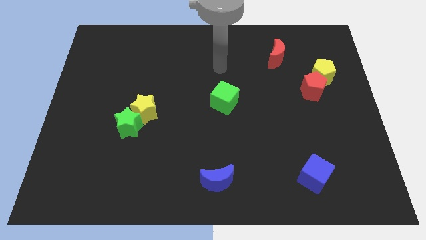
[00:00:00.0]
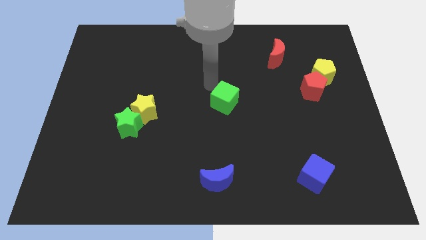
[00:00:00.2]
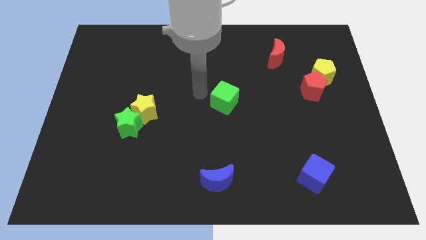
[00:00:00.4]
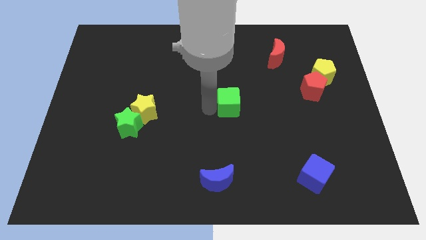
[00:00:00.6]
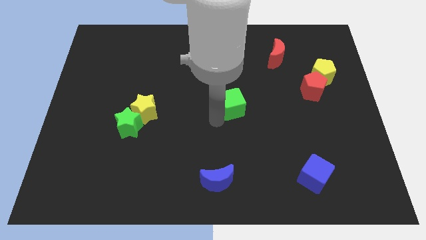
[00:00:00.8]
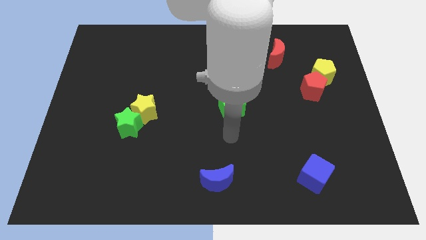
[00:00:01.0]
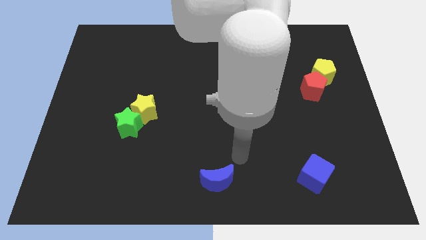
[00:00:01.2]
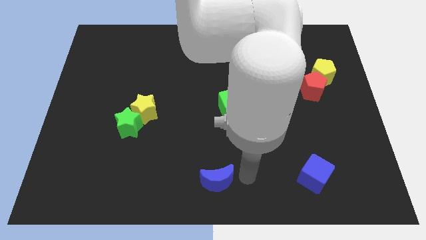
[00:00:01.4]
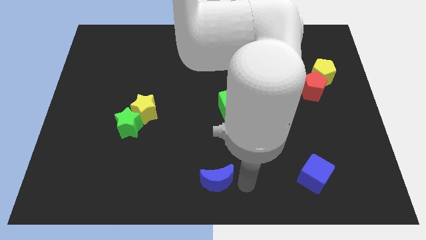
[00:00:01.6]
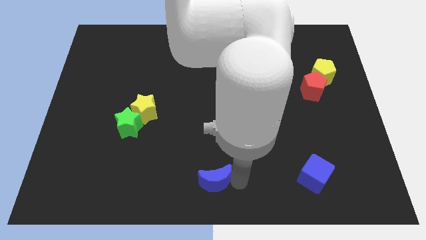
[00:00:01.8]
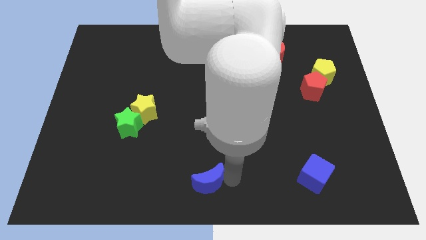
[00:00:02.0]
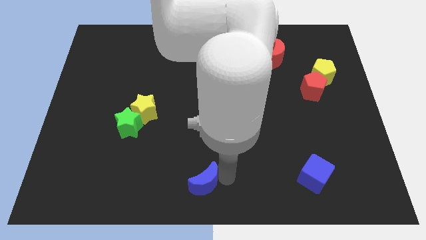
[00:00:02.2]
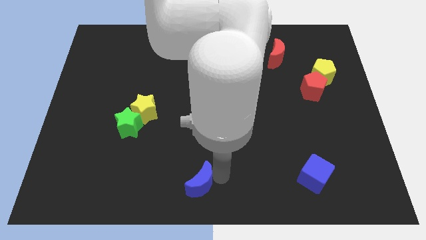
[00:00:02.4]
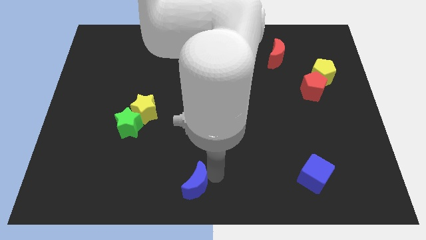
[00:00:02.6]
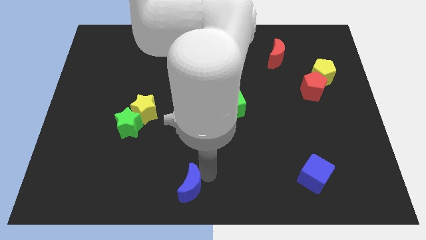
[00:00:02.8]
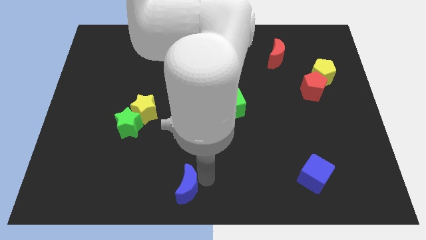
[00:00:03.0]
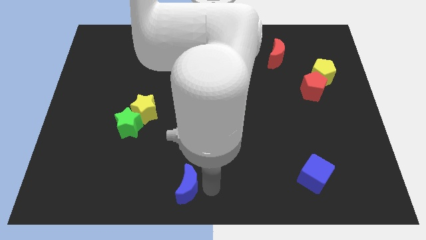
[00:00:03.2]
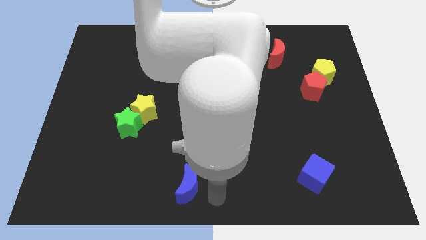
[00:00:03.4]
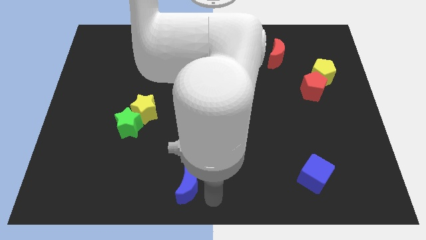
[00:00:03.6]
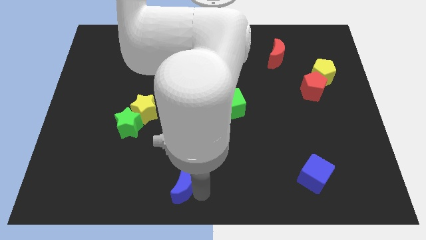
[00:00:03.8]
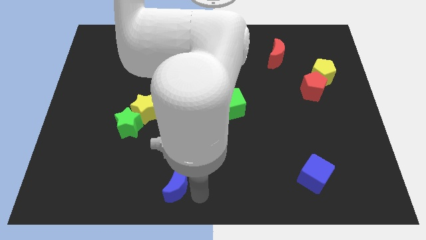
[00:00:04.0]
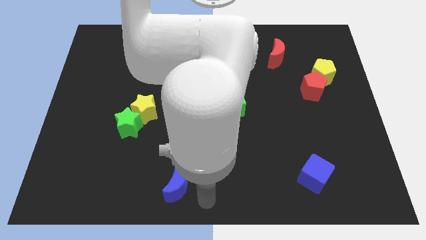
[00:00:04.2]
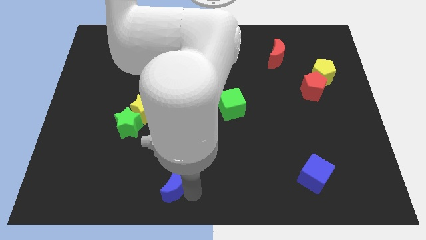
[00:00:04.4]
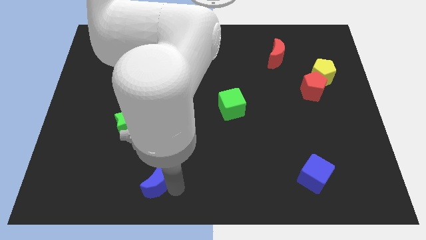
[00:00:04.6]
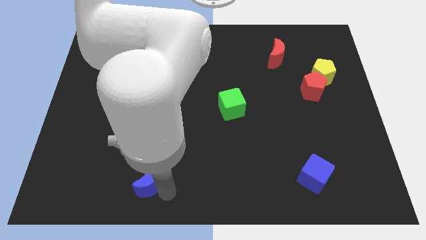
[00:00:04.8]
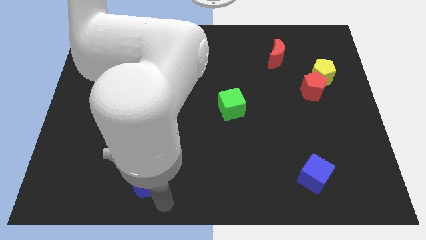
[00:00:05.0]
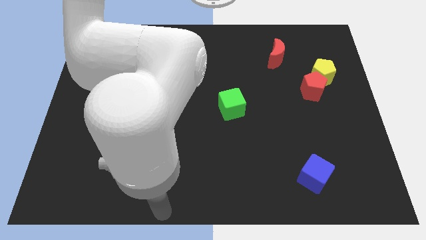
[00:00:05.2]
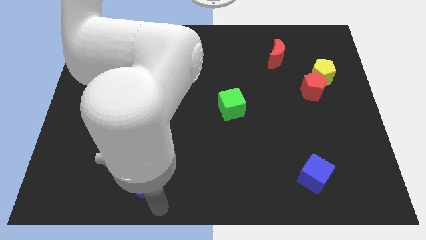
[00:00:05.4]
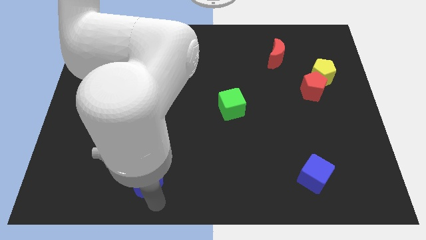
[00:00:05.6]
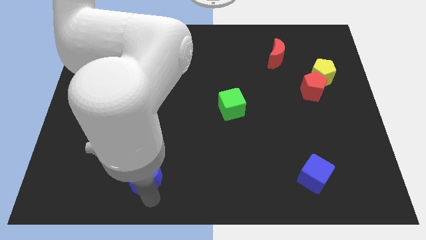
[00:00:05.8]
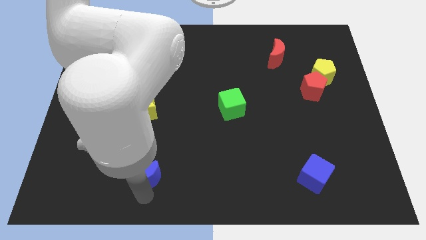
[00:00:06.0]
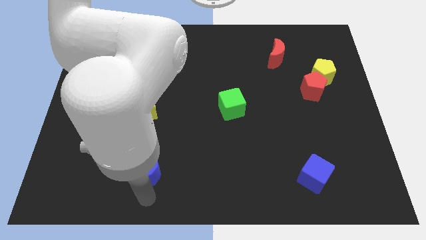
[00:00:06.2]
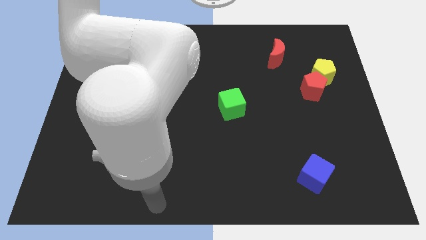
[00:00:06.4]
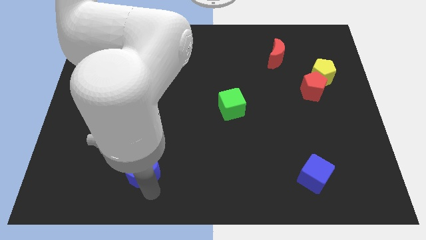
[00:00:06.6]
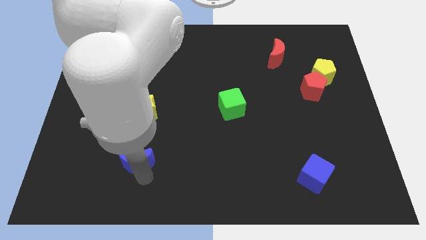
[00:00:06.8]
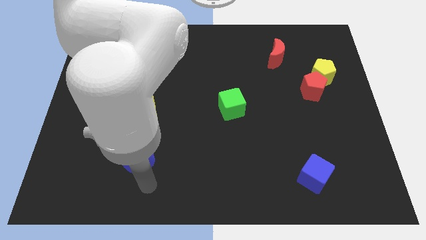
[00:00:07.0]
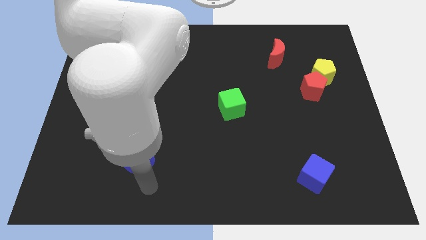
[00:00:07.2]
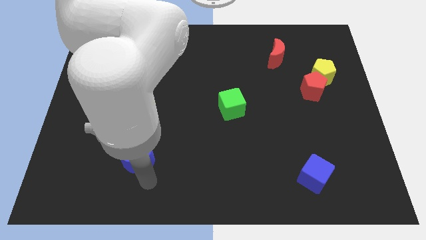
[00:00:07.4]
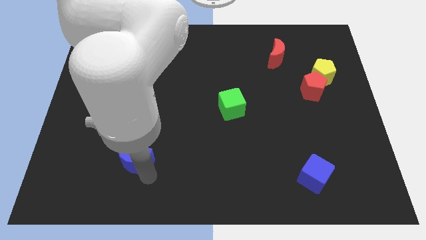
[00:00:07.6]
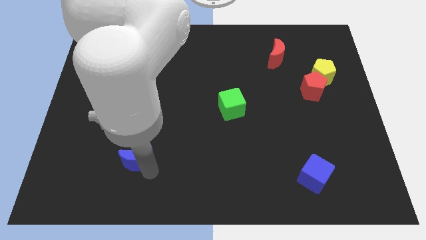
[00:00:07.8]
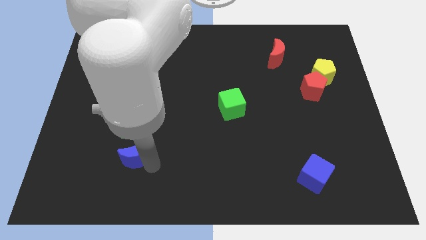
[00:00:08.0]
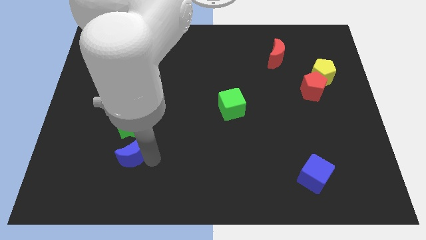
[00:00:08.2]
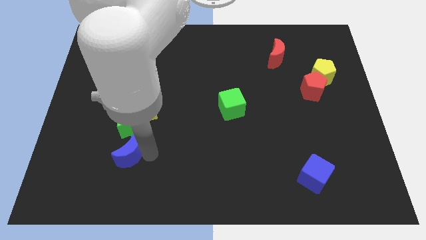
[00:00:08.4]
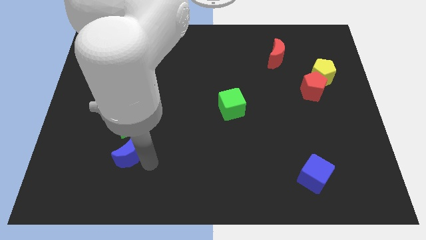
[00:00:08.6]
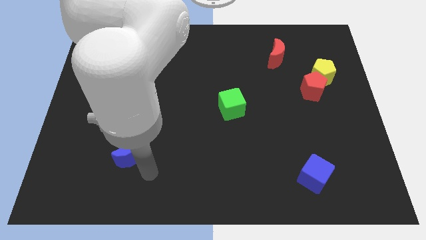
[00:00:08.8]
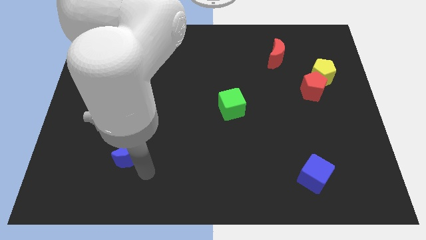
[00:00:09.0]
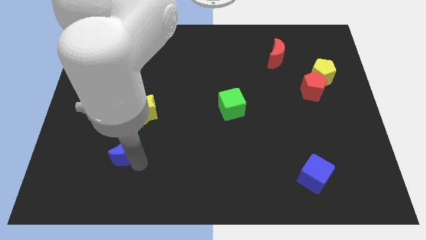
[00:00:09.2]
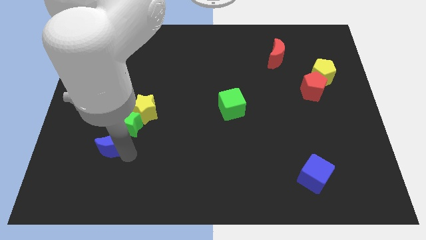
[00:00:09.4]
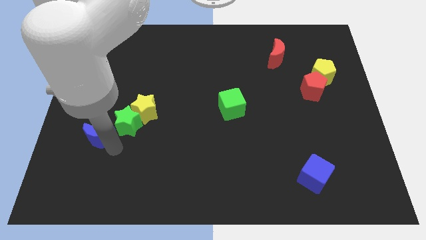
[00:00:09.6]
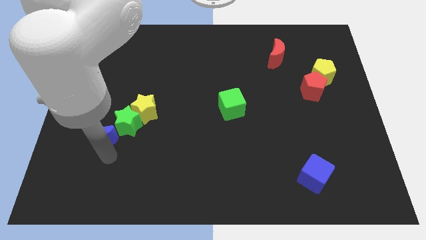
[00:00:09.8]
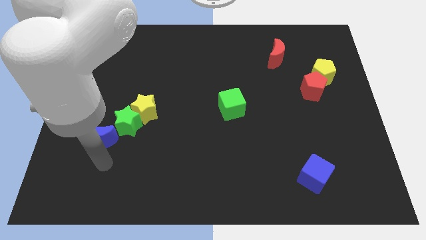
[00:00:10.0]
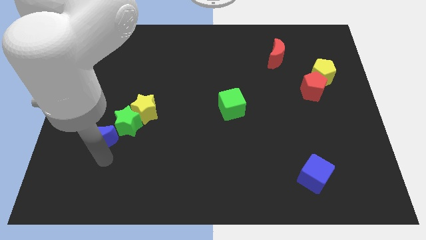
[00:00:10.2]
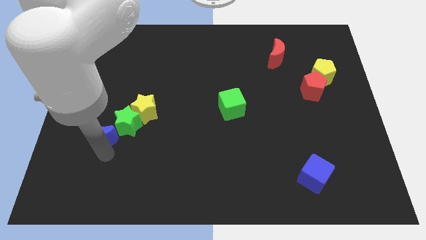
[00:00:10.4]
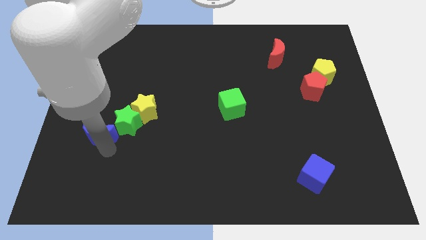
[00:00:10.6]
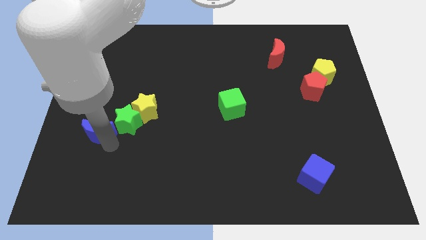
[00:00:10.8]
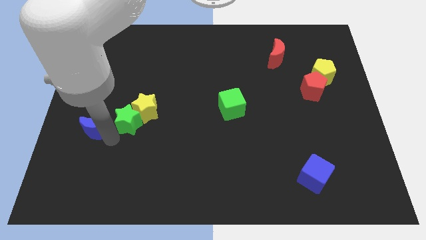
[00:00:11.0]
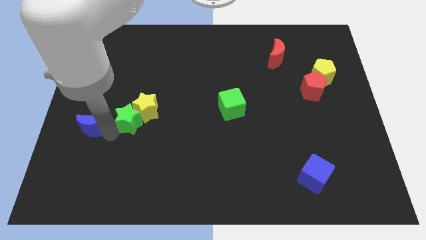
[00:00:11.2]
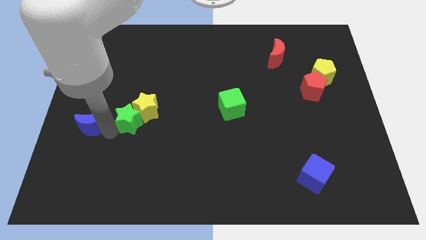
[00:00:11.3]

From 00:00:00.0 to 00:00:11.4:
push the blue moon to the center left

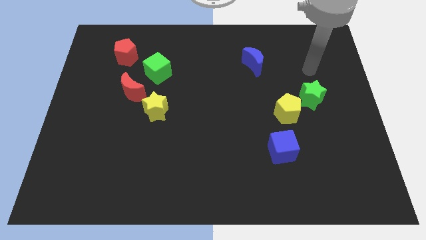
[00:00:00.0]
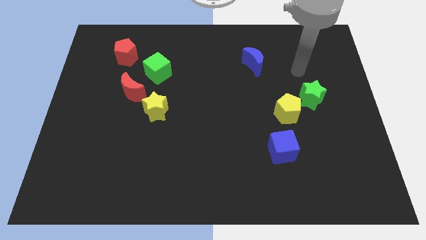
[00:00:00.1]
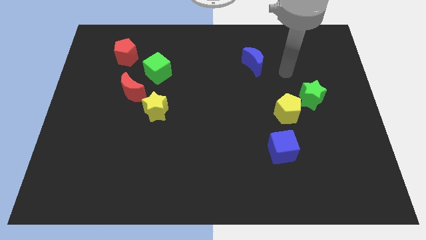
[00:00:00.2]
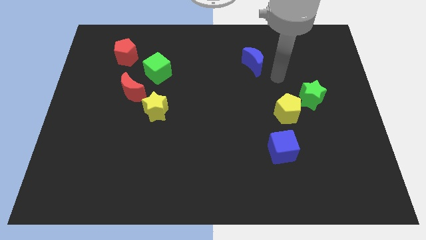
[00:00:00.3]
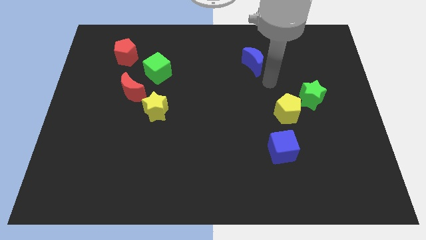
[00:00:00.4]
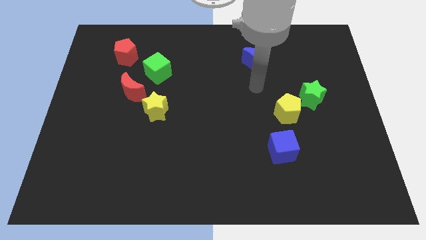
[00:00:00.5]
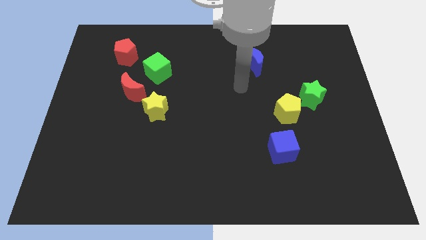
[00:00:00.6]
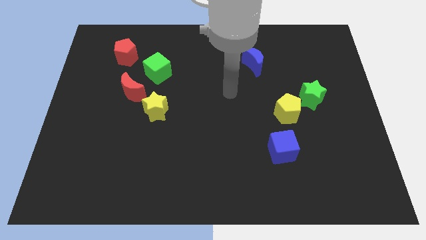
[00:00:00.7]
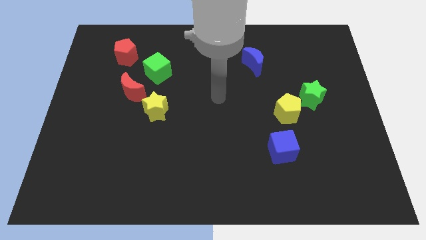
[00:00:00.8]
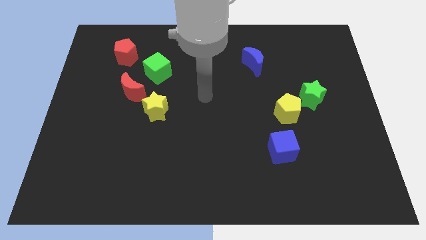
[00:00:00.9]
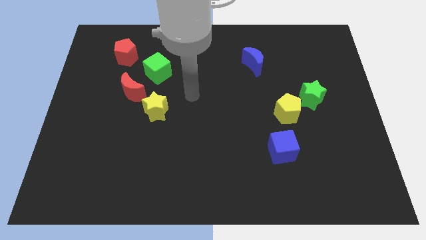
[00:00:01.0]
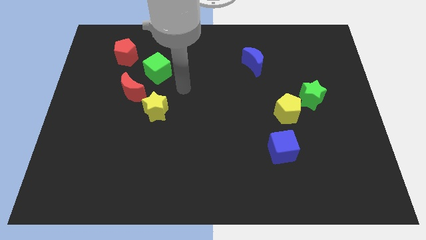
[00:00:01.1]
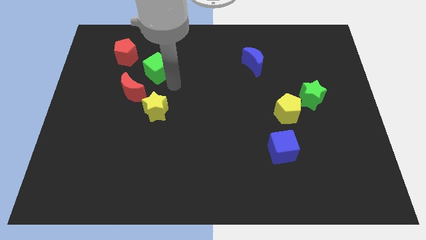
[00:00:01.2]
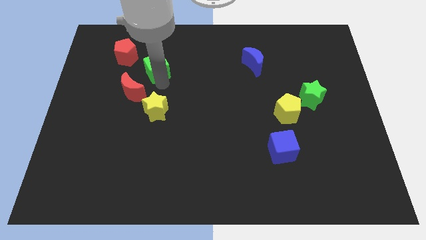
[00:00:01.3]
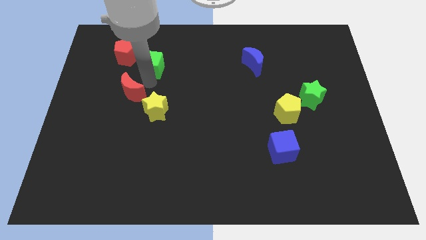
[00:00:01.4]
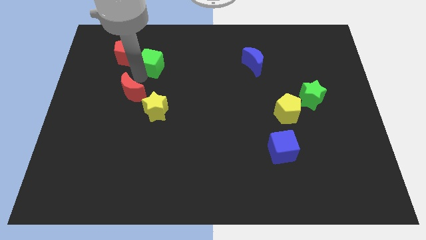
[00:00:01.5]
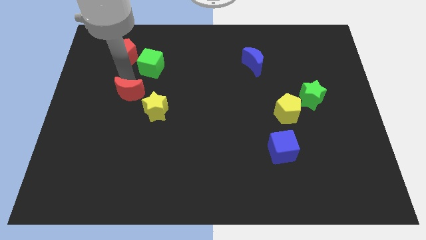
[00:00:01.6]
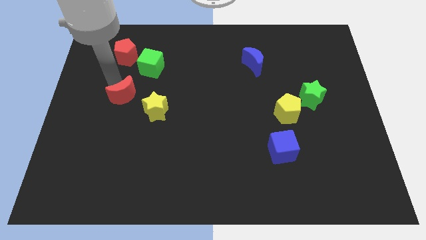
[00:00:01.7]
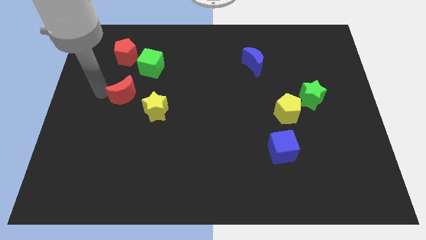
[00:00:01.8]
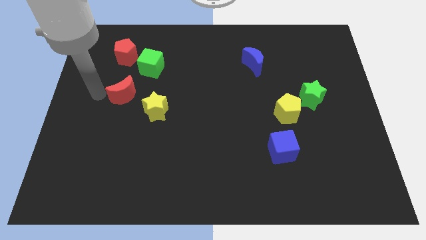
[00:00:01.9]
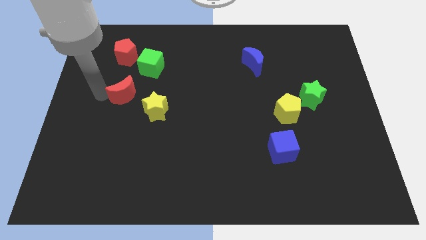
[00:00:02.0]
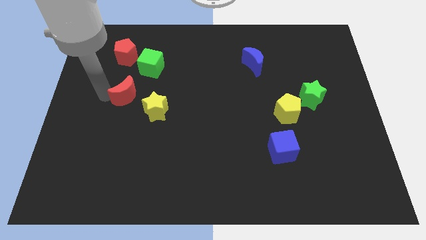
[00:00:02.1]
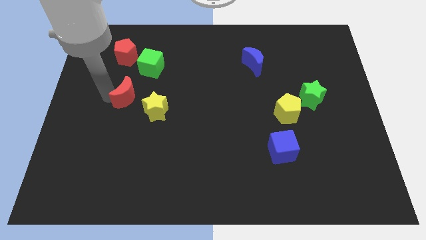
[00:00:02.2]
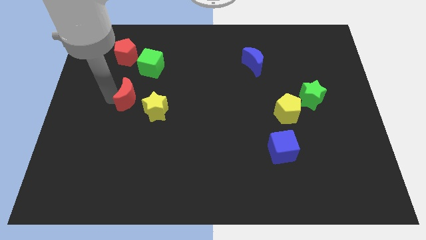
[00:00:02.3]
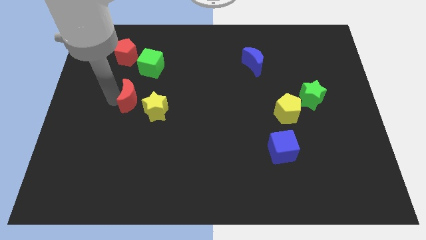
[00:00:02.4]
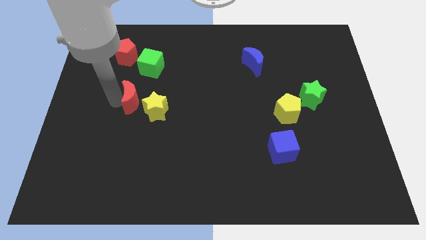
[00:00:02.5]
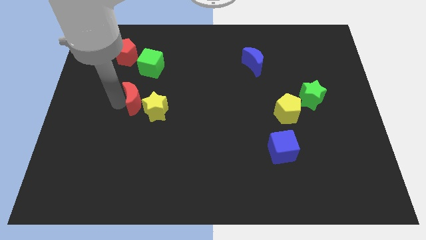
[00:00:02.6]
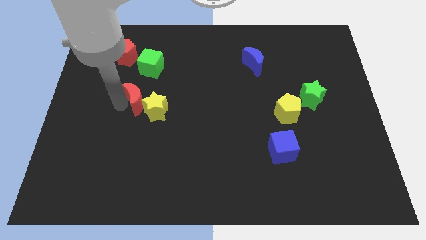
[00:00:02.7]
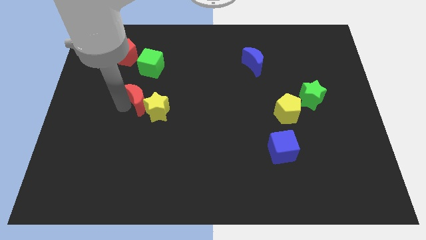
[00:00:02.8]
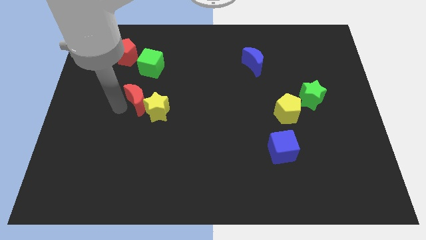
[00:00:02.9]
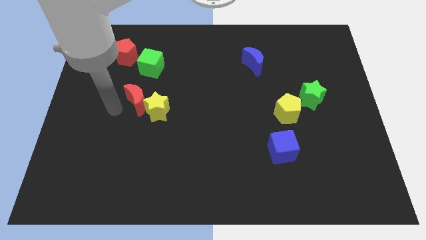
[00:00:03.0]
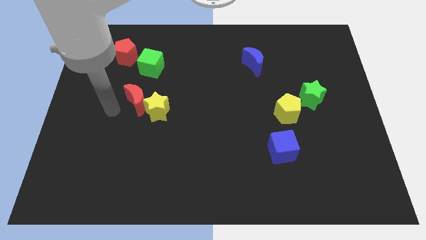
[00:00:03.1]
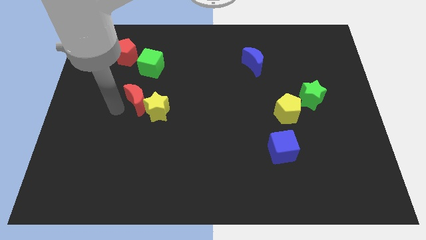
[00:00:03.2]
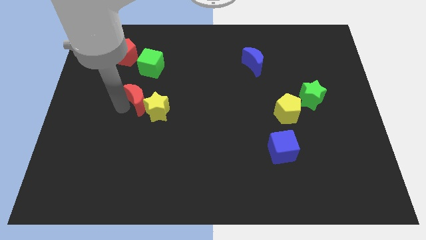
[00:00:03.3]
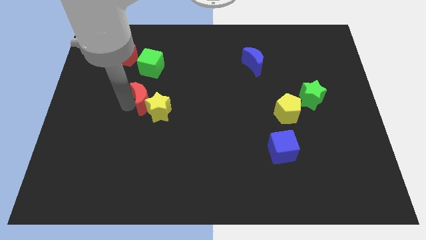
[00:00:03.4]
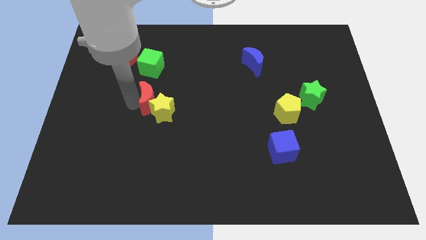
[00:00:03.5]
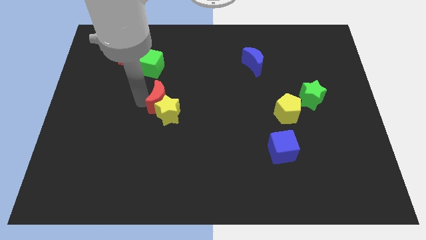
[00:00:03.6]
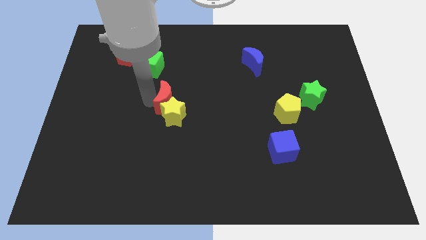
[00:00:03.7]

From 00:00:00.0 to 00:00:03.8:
move the red moon to the center of the board
